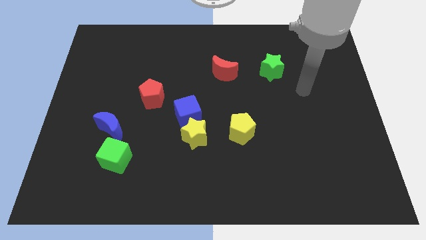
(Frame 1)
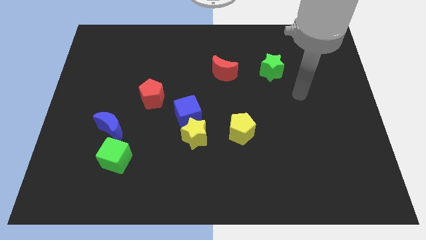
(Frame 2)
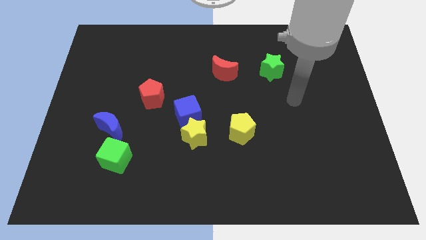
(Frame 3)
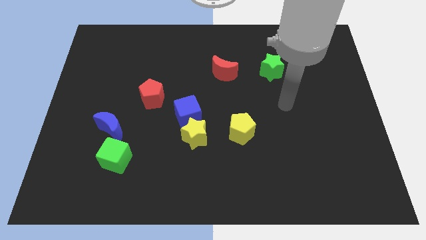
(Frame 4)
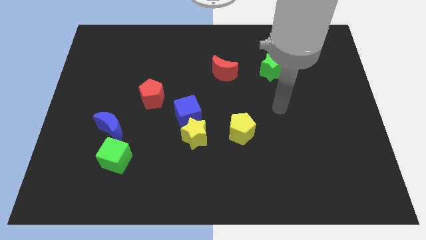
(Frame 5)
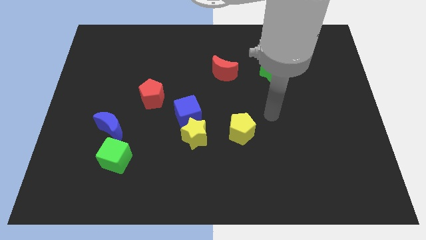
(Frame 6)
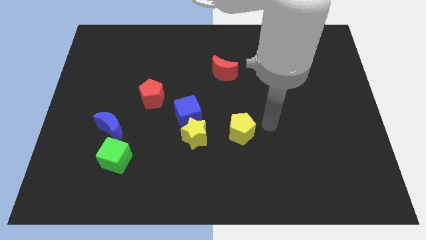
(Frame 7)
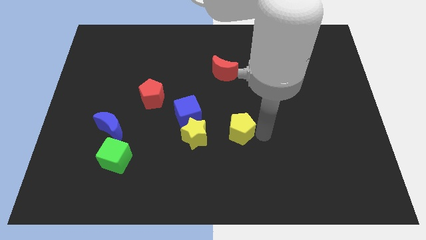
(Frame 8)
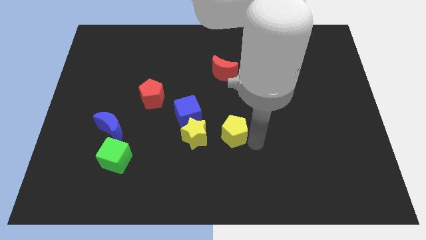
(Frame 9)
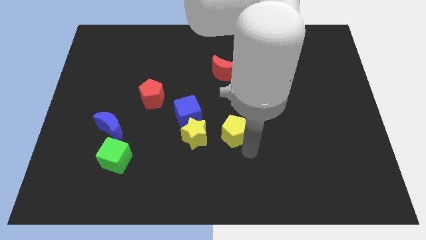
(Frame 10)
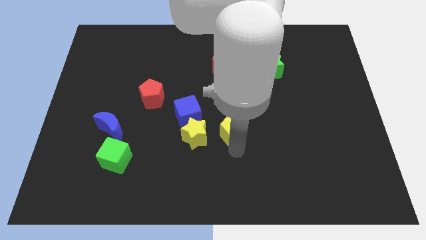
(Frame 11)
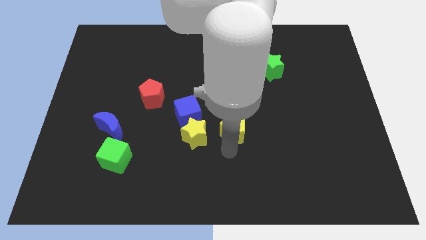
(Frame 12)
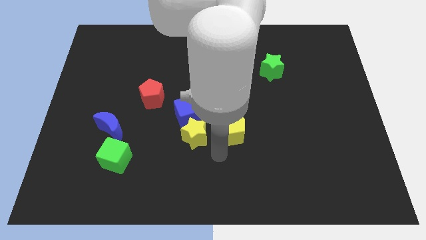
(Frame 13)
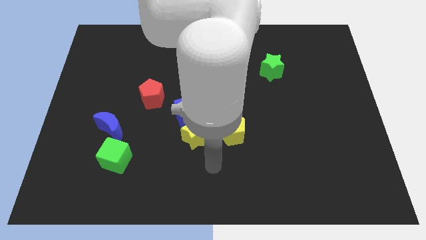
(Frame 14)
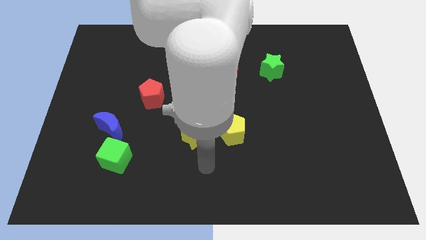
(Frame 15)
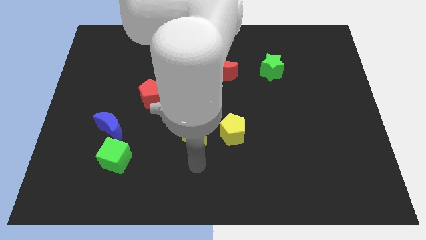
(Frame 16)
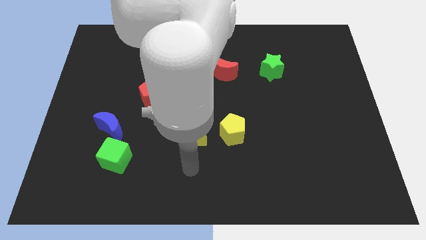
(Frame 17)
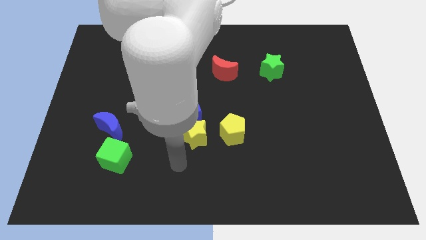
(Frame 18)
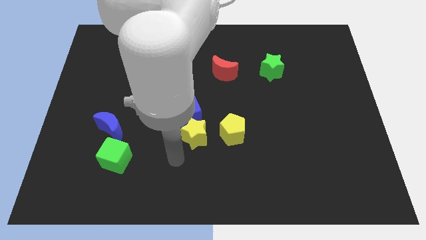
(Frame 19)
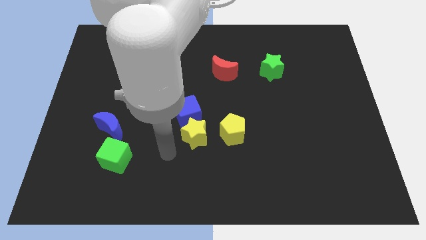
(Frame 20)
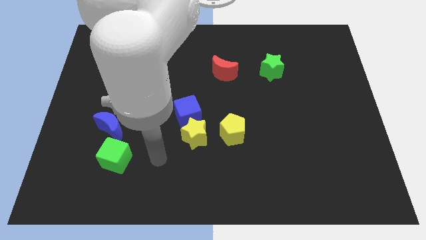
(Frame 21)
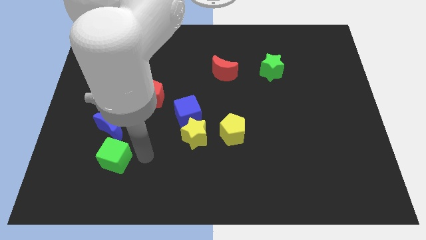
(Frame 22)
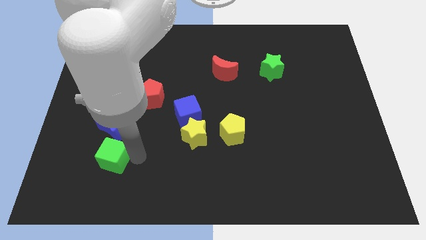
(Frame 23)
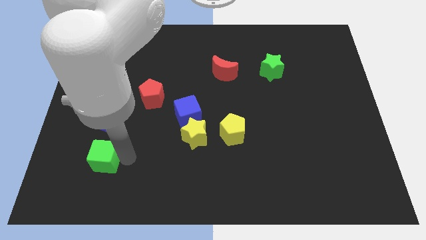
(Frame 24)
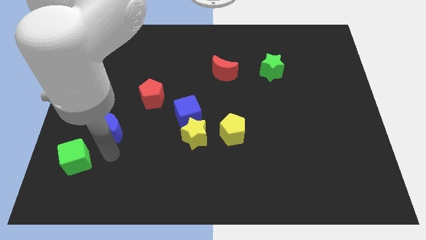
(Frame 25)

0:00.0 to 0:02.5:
separate the blue moon from the green cube

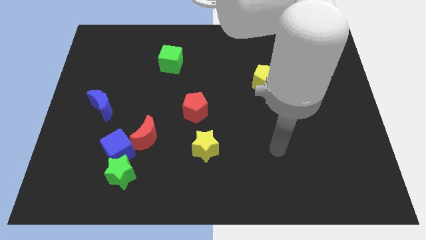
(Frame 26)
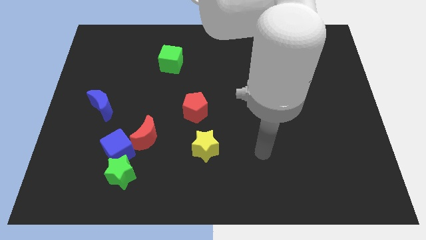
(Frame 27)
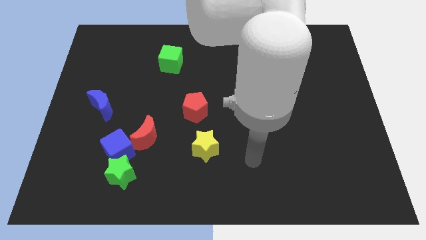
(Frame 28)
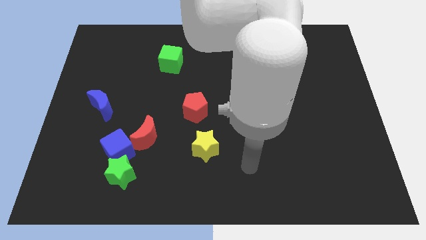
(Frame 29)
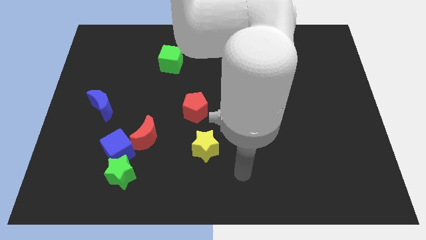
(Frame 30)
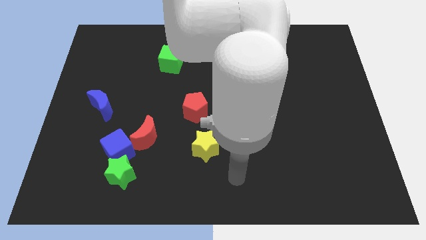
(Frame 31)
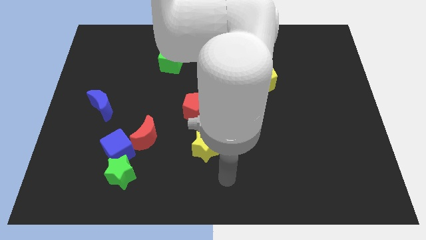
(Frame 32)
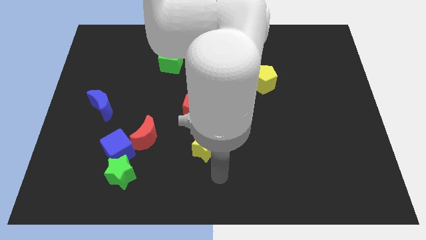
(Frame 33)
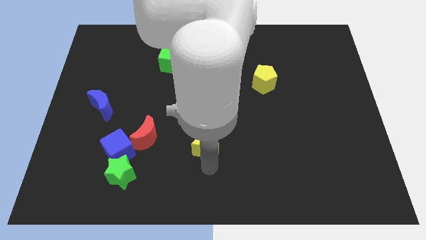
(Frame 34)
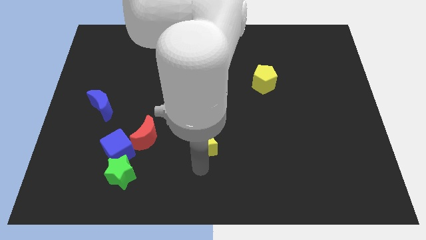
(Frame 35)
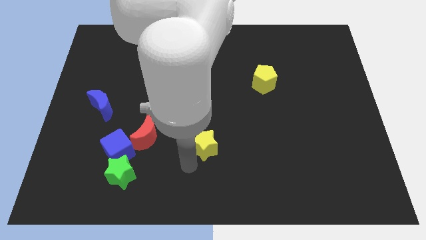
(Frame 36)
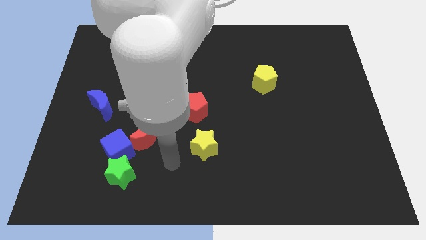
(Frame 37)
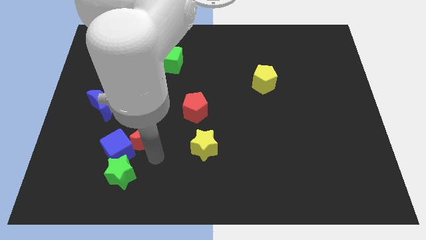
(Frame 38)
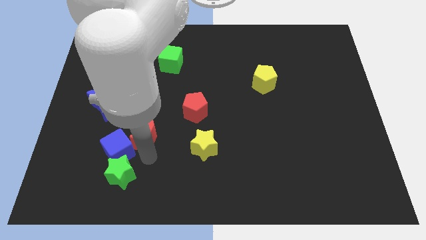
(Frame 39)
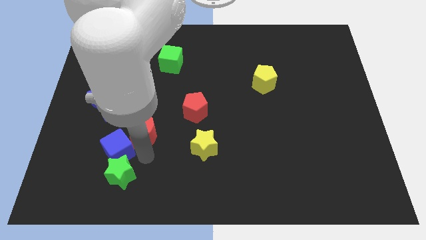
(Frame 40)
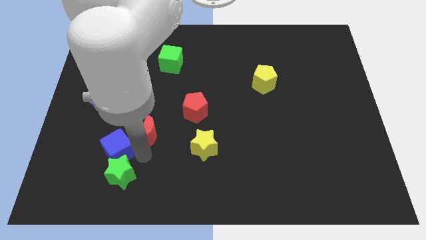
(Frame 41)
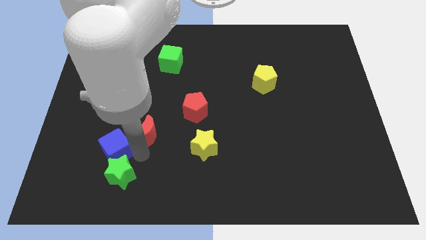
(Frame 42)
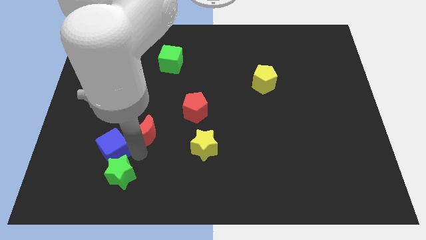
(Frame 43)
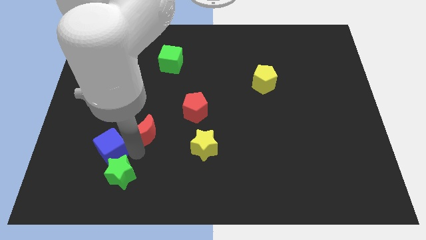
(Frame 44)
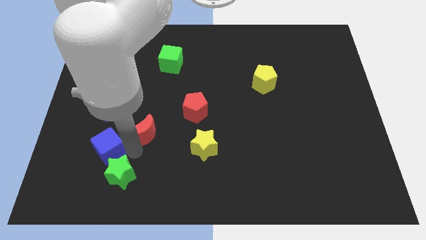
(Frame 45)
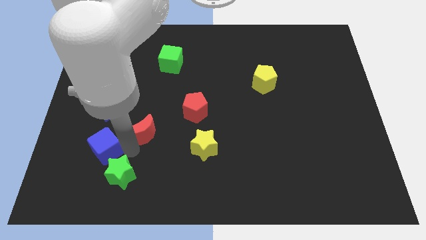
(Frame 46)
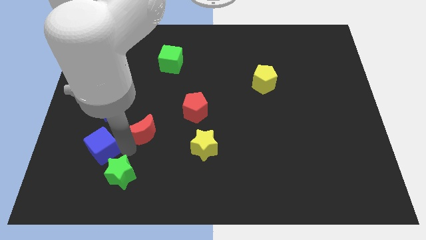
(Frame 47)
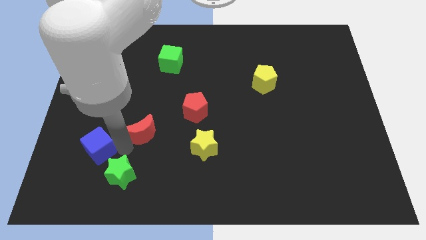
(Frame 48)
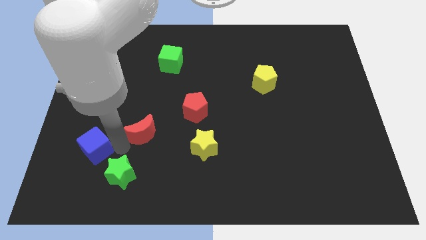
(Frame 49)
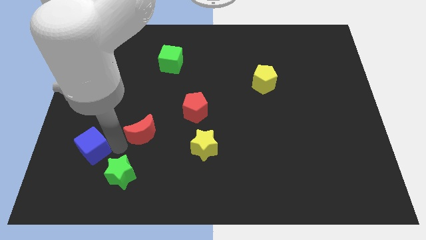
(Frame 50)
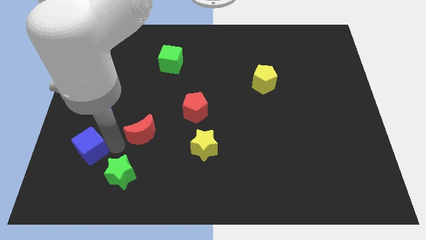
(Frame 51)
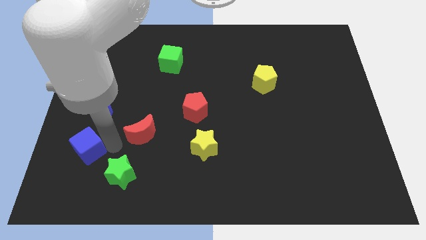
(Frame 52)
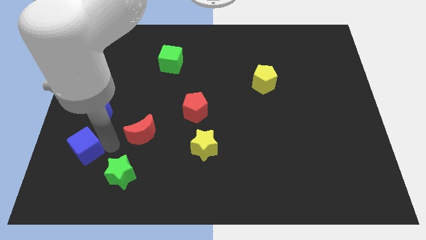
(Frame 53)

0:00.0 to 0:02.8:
separate the blue cube from the green star and red moon

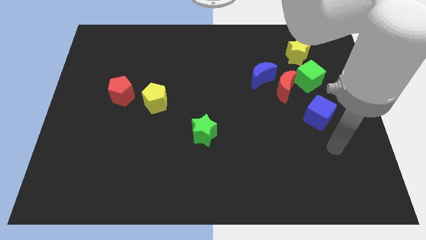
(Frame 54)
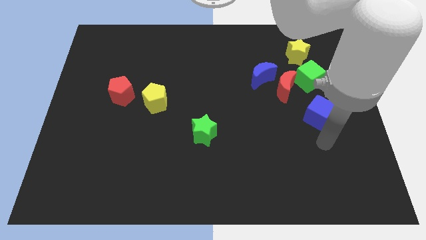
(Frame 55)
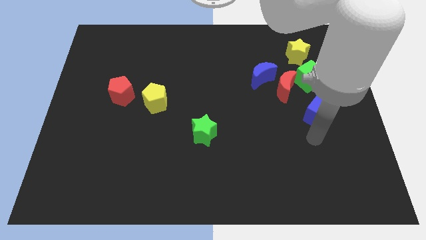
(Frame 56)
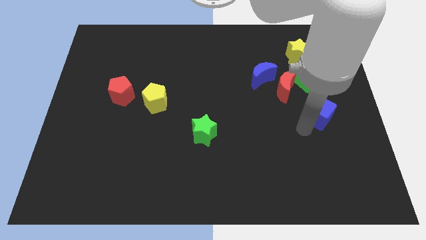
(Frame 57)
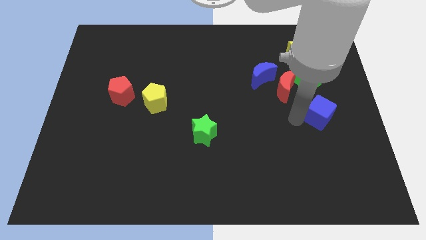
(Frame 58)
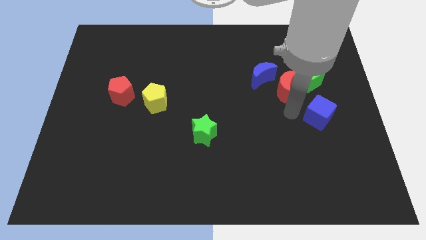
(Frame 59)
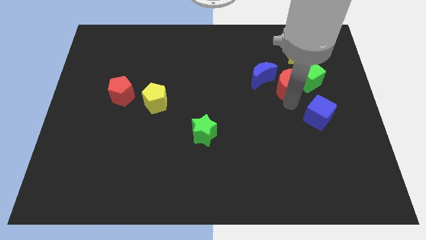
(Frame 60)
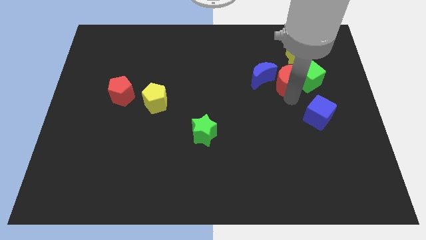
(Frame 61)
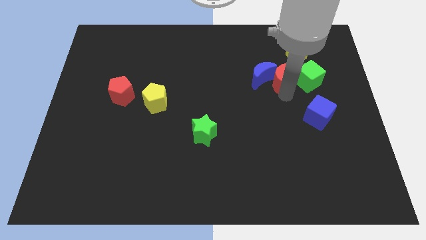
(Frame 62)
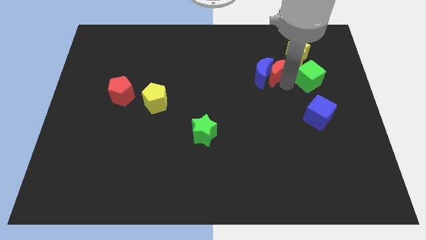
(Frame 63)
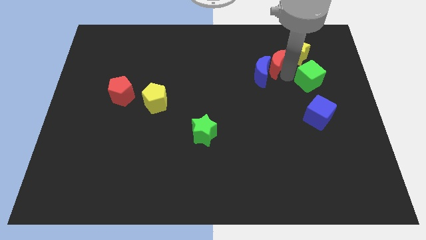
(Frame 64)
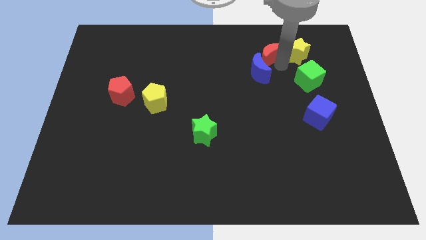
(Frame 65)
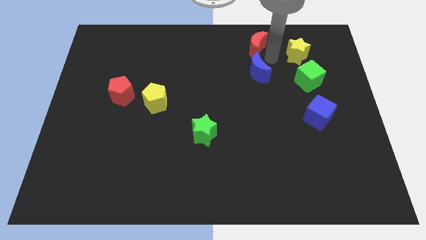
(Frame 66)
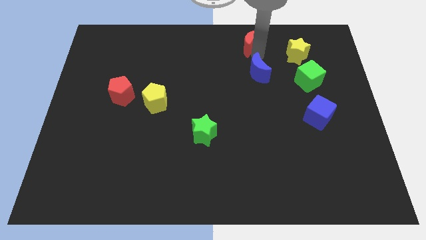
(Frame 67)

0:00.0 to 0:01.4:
move the blue moon away from the red moon

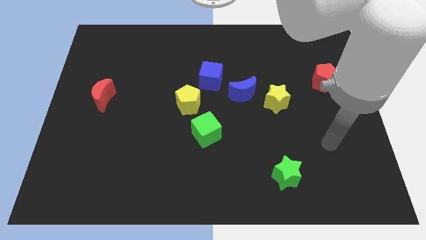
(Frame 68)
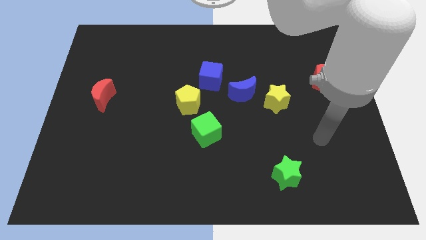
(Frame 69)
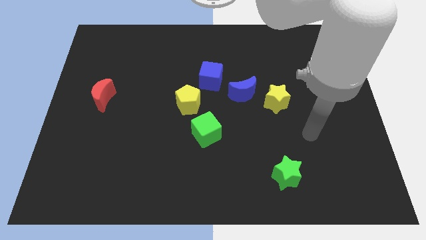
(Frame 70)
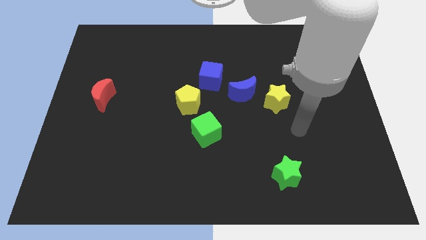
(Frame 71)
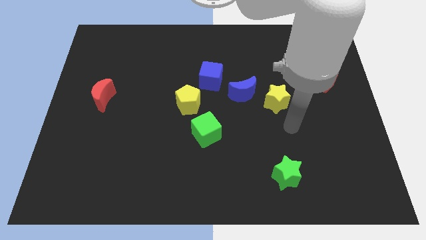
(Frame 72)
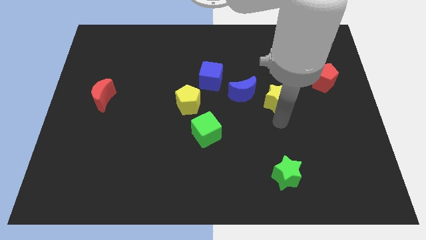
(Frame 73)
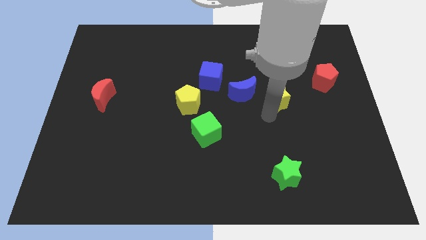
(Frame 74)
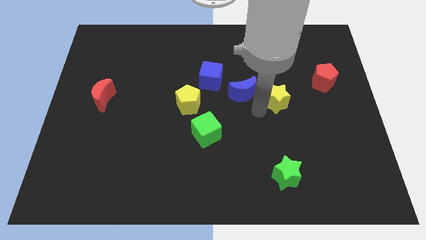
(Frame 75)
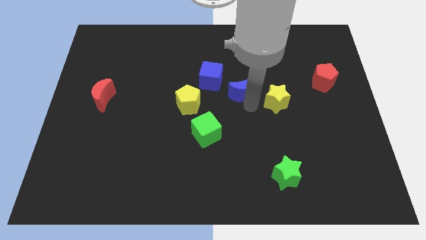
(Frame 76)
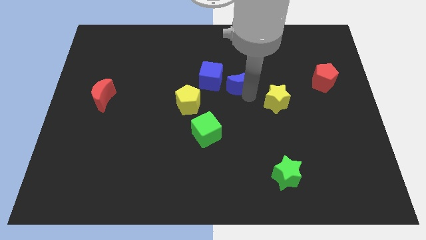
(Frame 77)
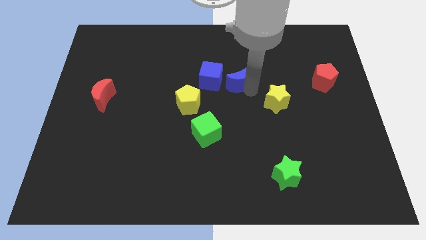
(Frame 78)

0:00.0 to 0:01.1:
separate the yellow star from the blue moon

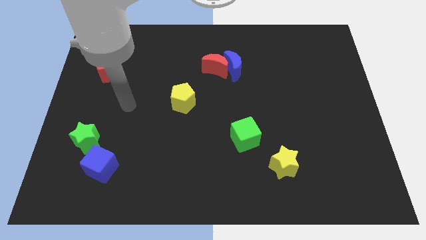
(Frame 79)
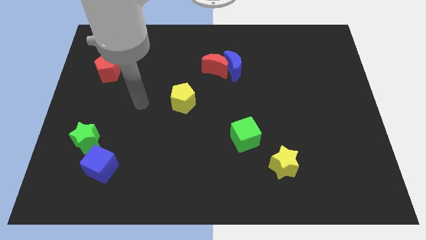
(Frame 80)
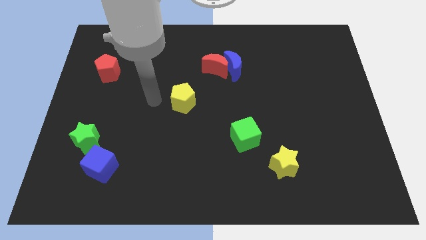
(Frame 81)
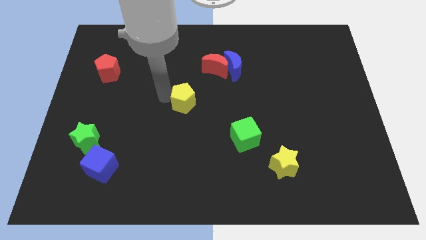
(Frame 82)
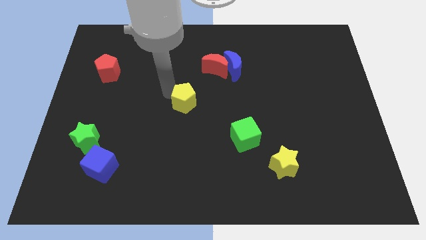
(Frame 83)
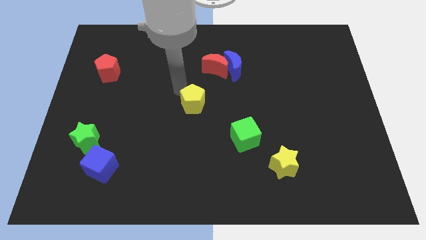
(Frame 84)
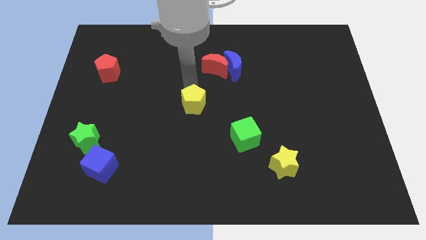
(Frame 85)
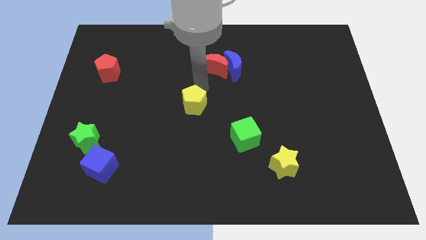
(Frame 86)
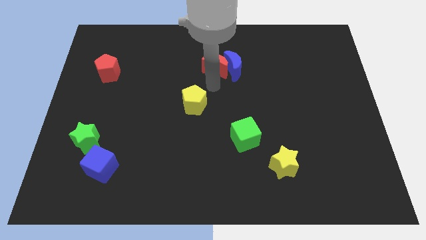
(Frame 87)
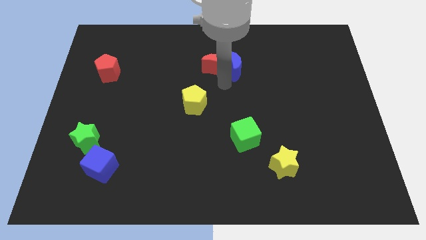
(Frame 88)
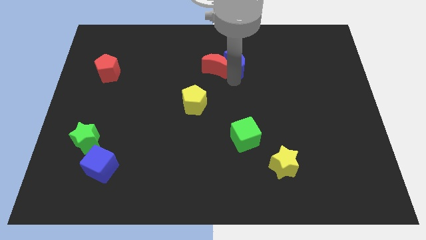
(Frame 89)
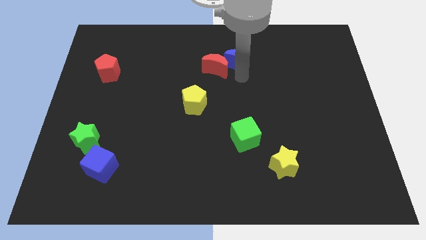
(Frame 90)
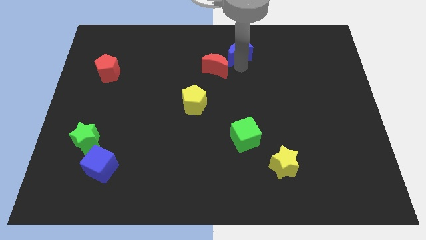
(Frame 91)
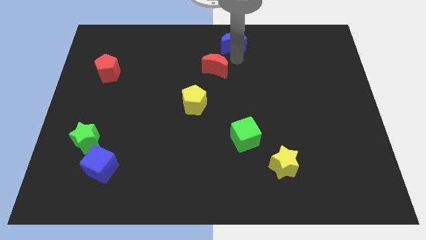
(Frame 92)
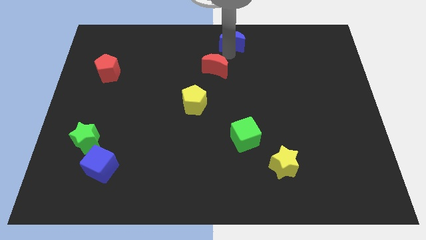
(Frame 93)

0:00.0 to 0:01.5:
separate the red moon from the blue moon
